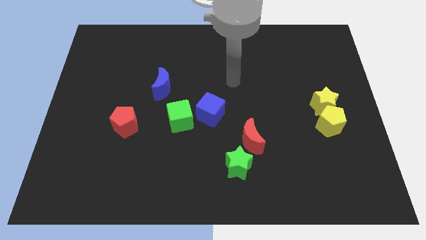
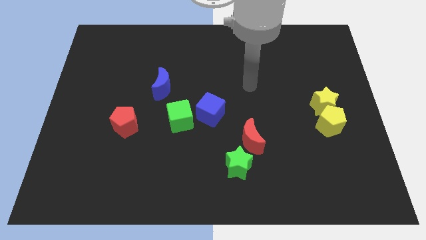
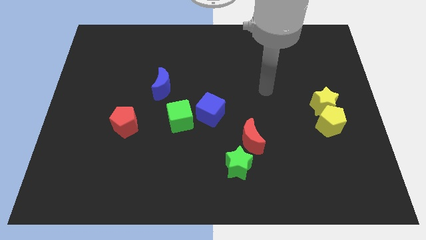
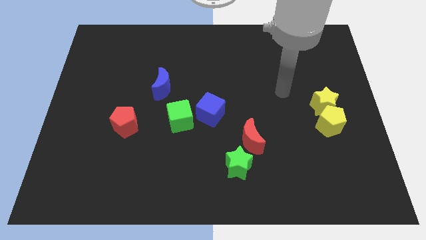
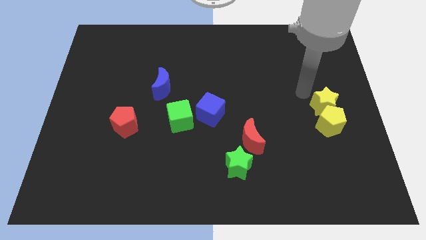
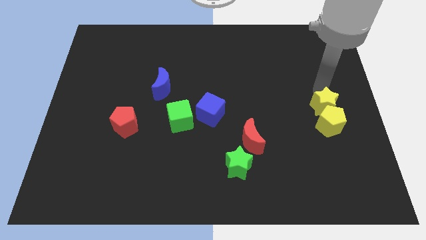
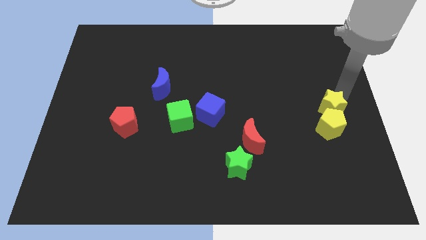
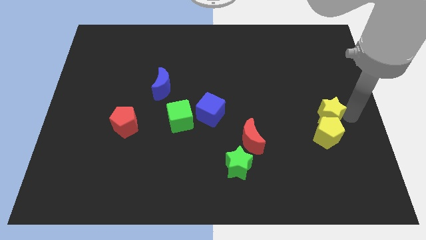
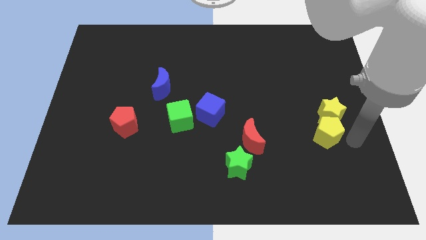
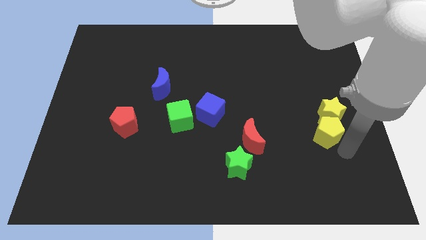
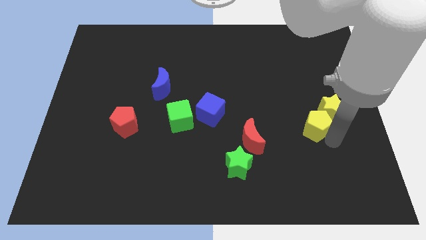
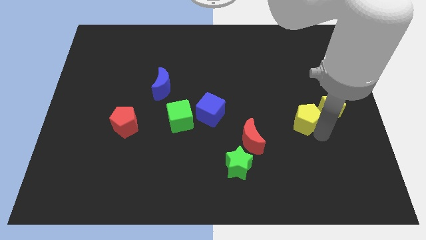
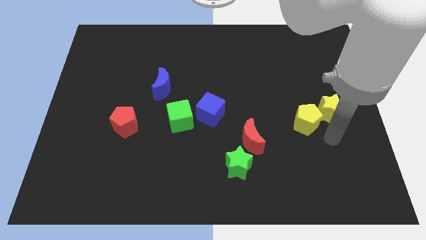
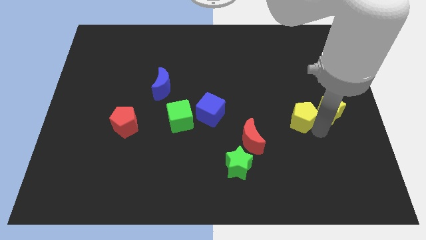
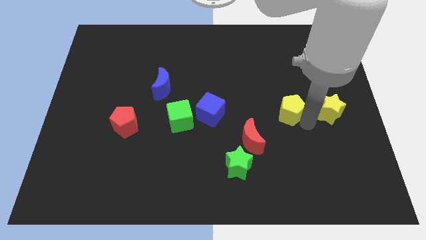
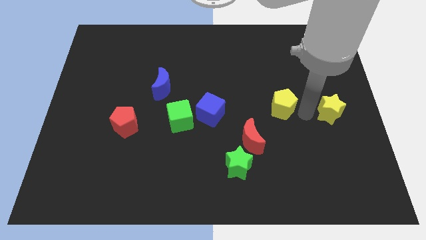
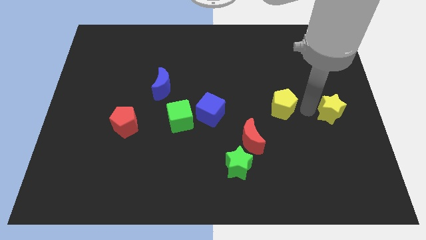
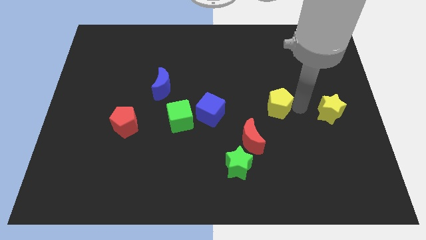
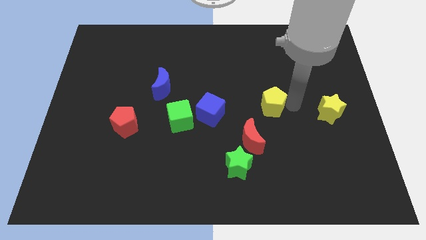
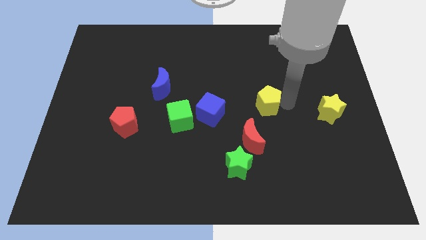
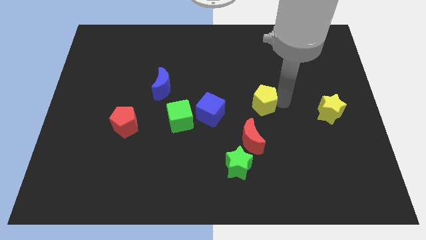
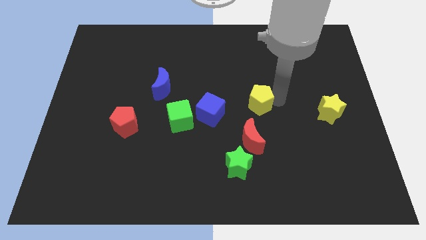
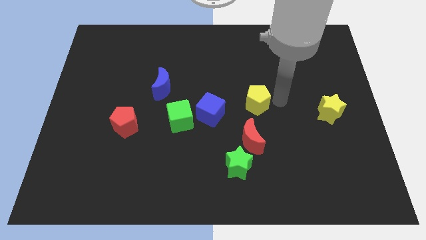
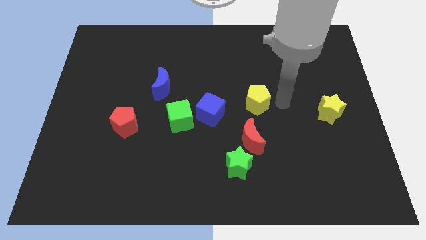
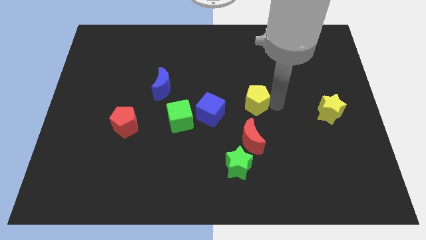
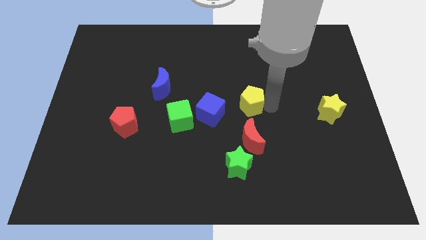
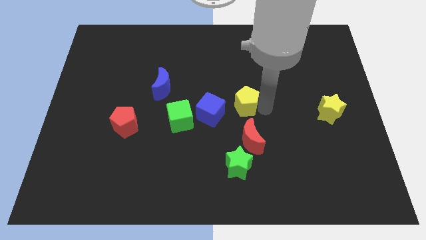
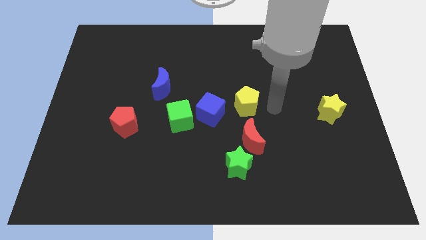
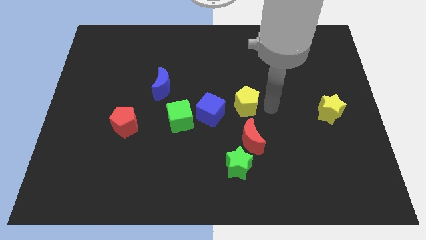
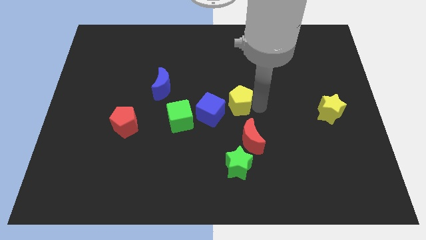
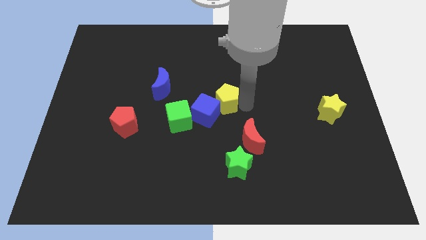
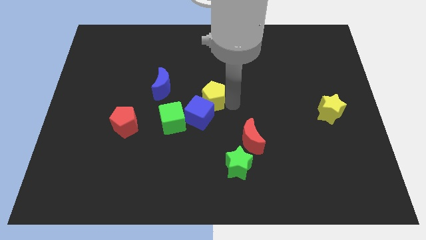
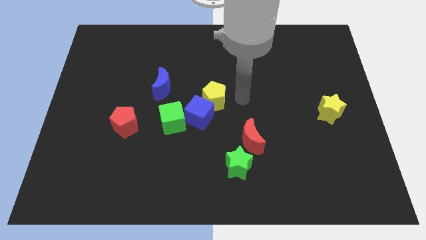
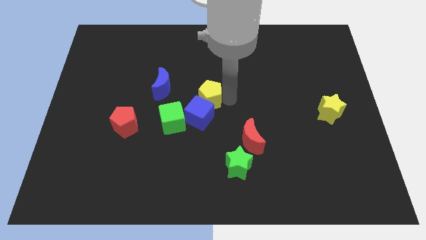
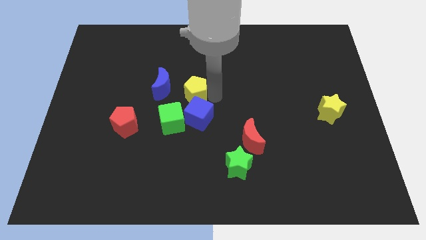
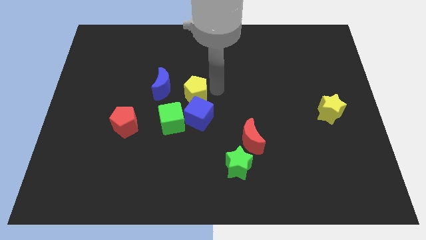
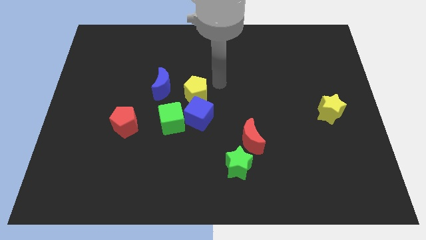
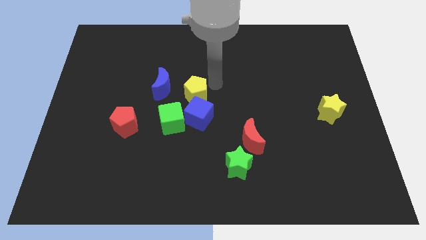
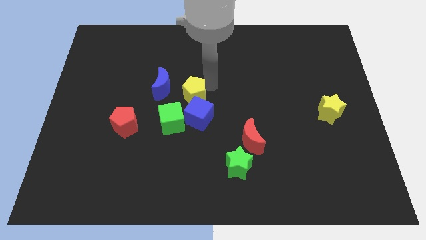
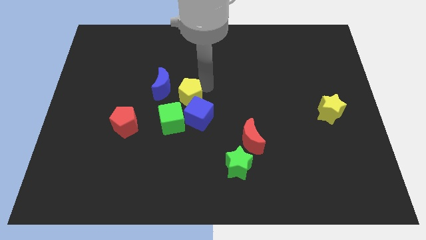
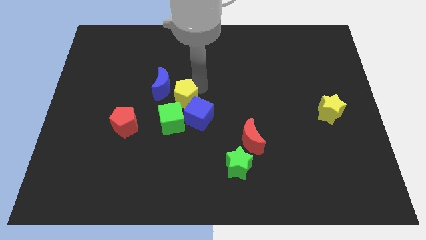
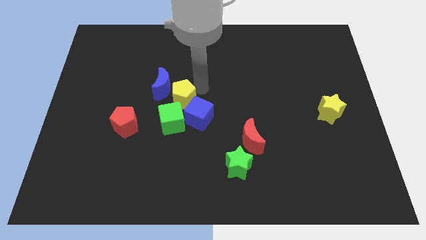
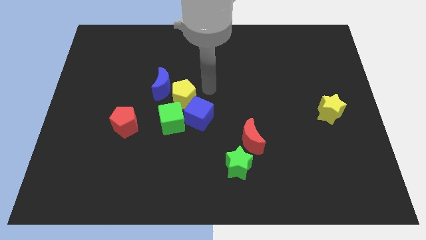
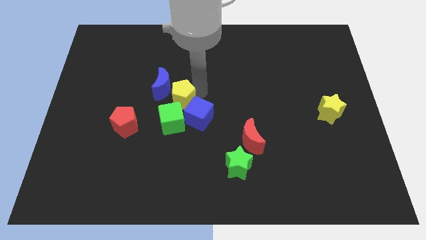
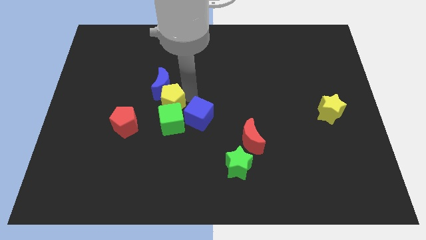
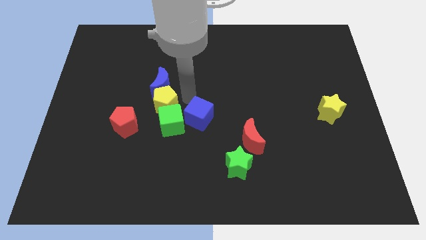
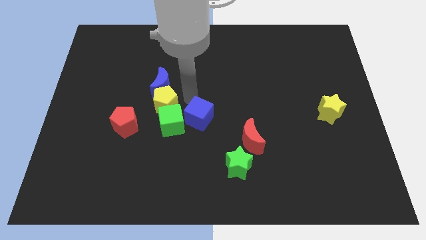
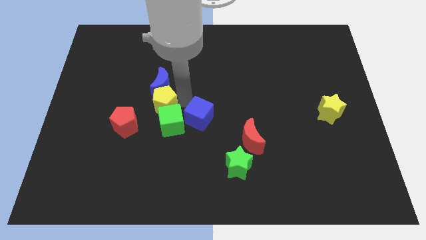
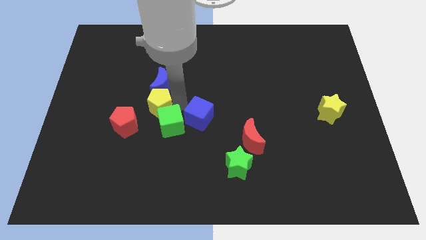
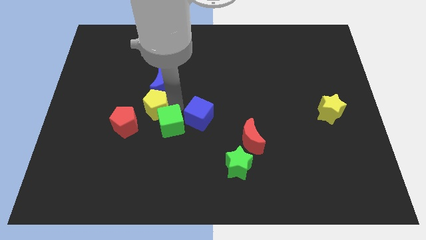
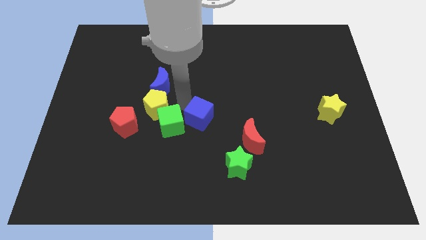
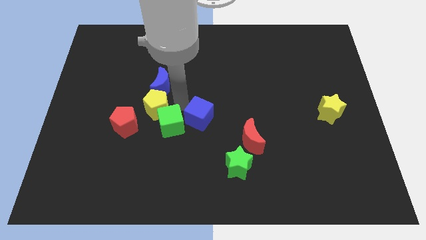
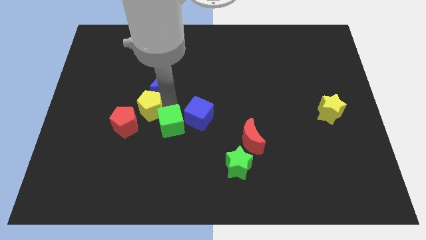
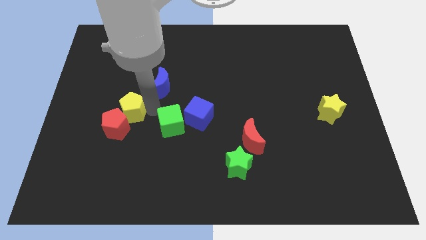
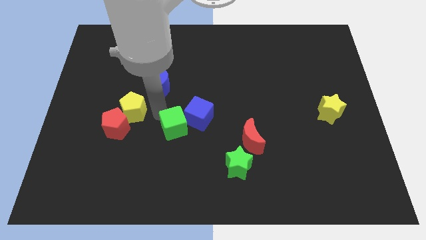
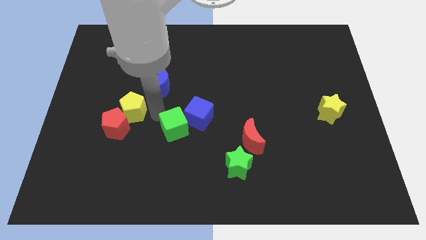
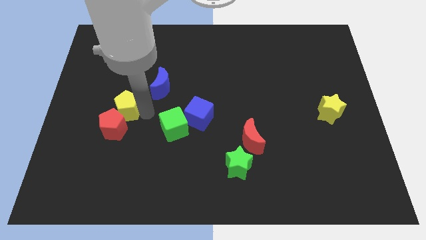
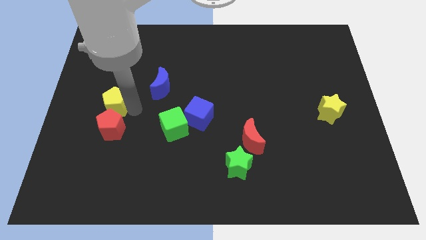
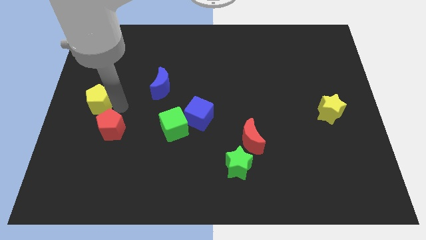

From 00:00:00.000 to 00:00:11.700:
push the yellow pentagon to the center left

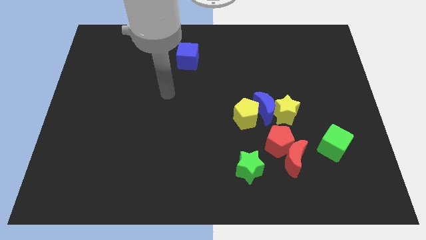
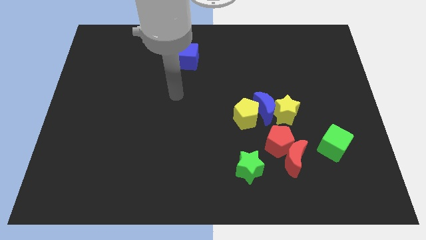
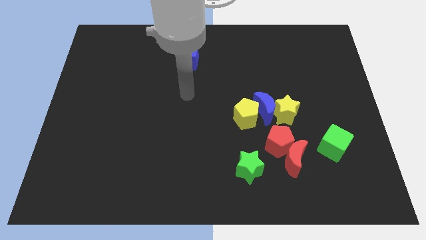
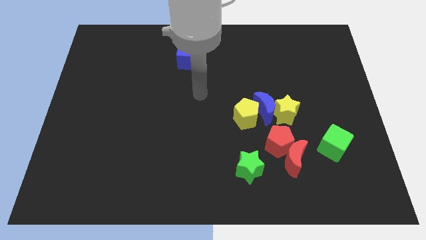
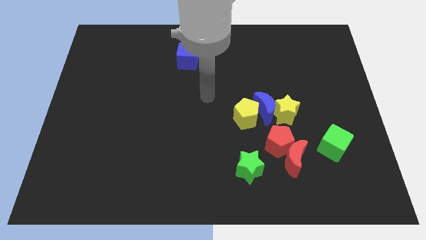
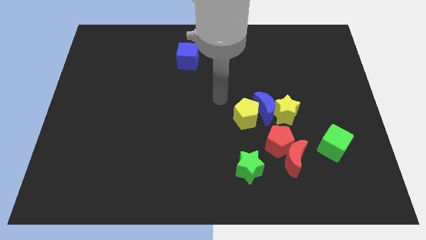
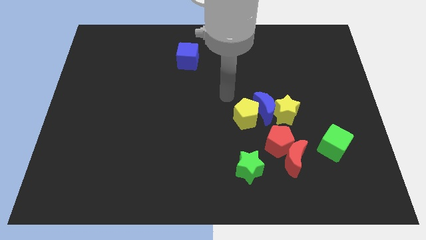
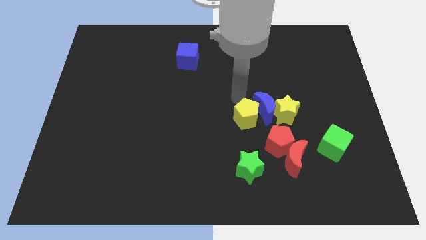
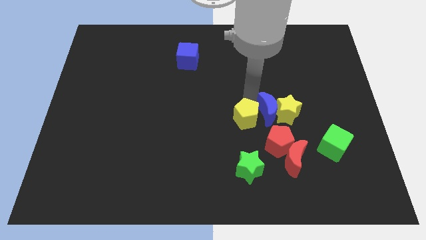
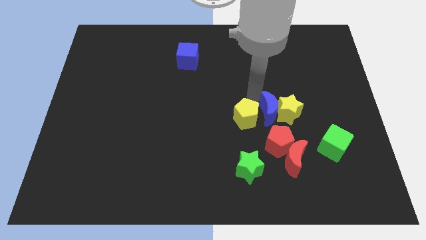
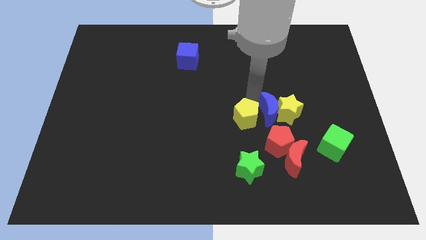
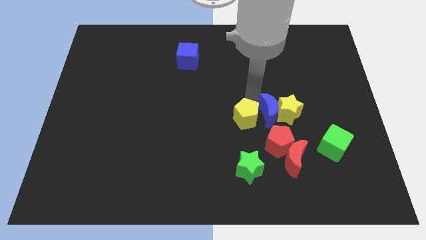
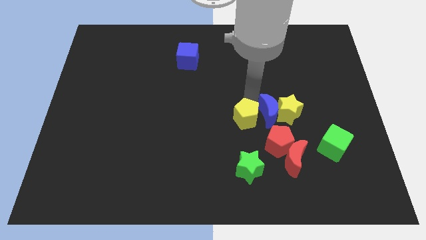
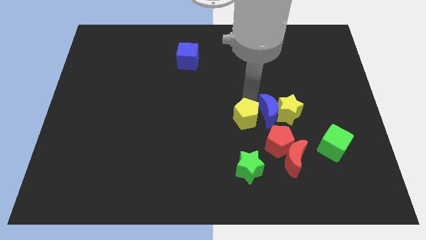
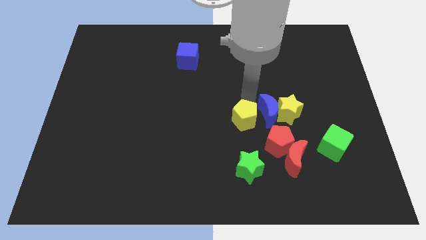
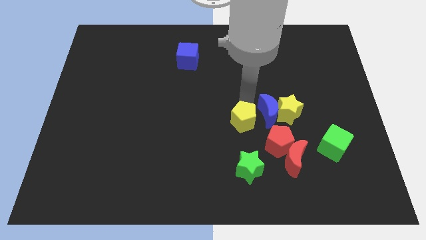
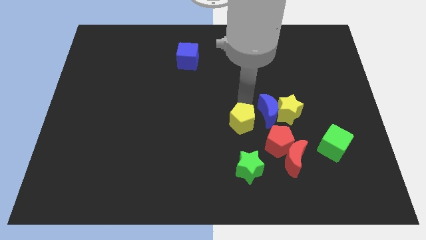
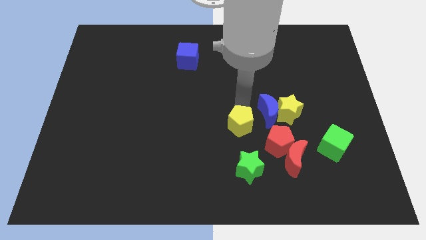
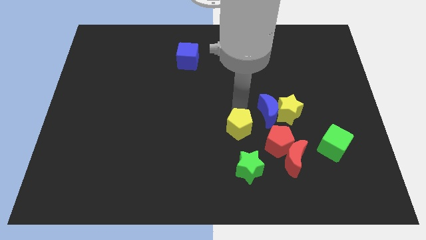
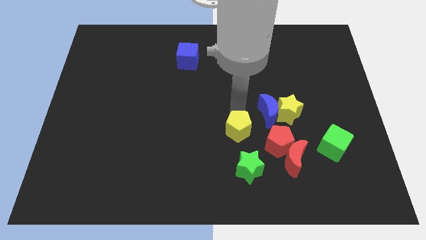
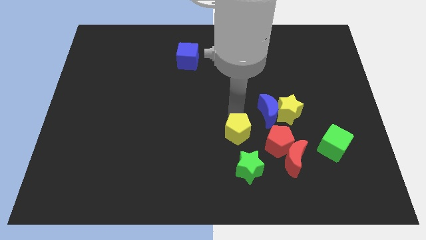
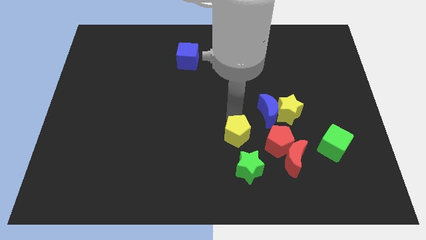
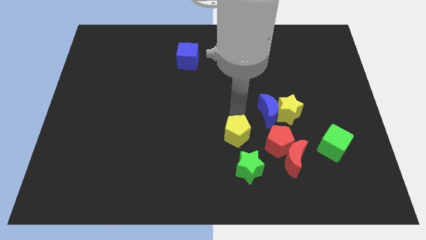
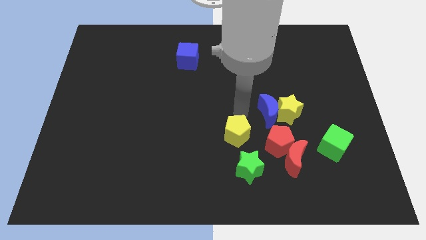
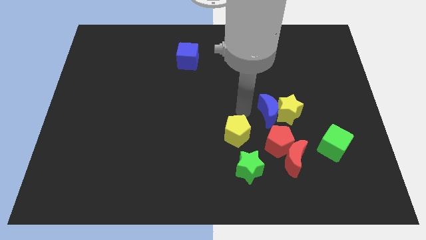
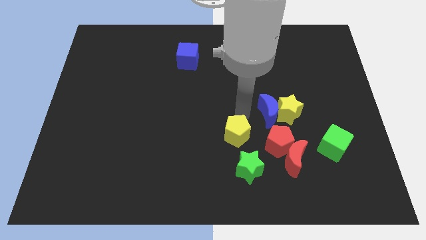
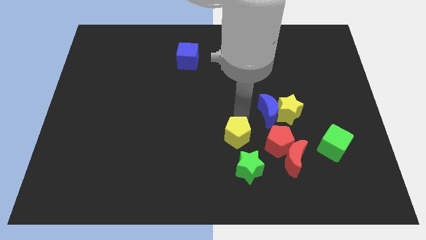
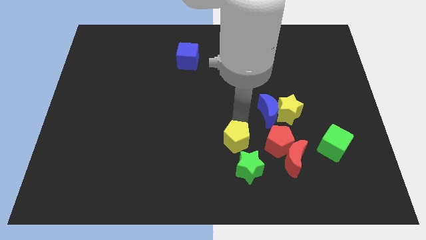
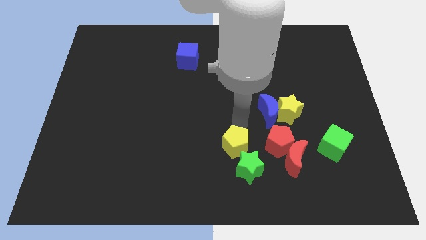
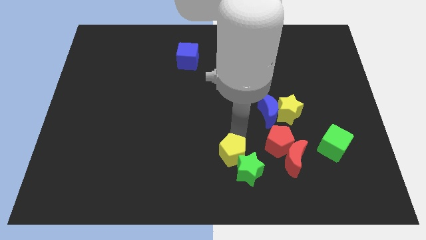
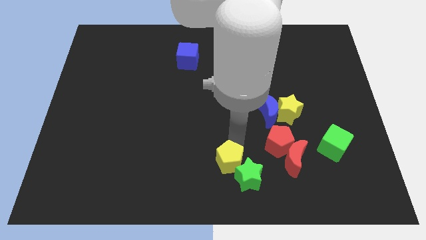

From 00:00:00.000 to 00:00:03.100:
move the yellow pentagon to the bottom side
